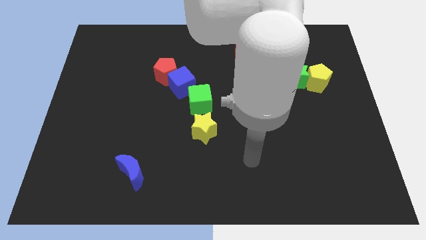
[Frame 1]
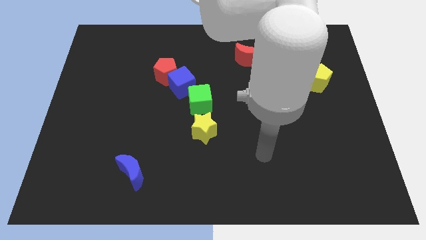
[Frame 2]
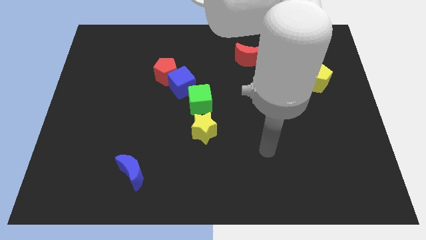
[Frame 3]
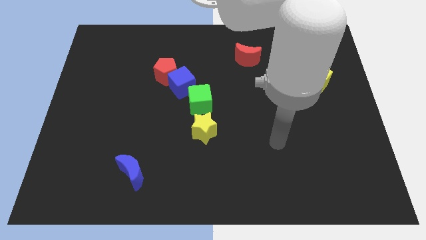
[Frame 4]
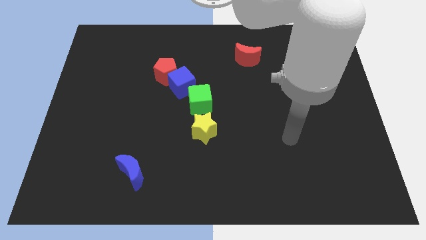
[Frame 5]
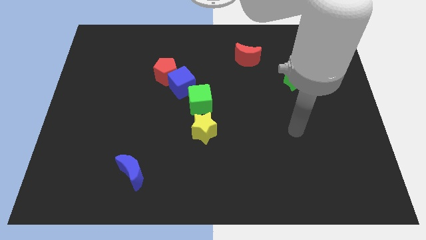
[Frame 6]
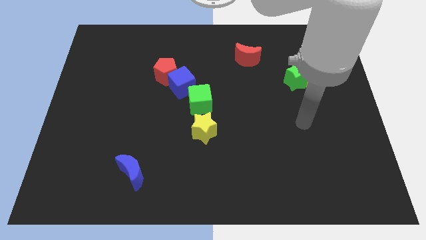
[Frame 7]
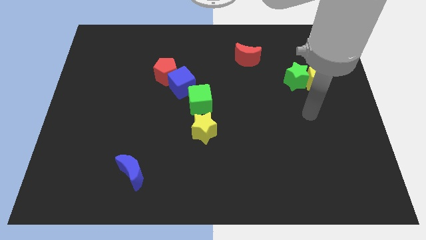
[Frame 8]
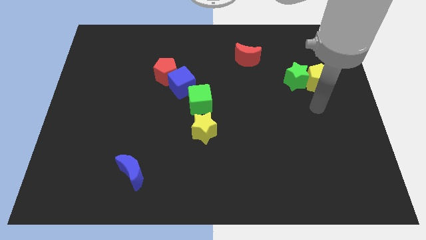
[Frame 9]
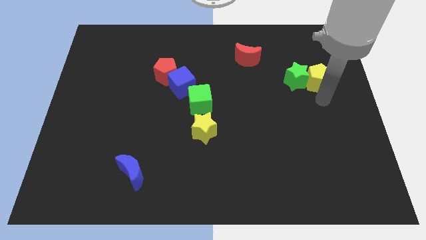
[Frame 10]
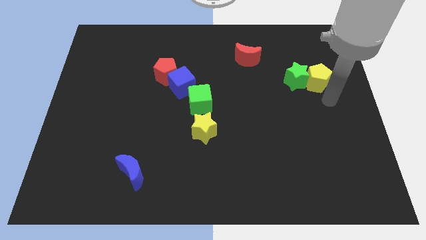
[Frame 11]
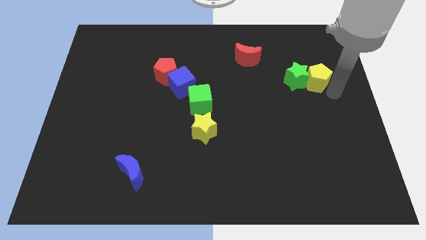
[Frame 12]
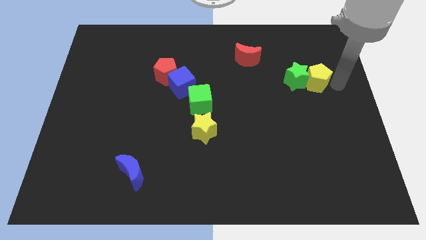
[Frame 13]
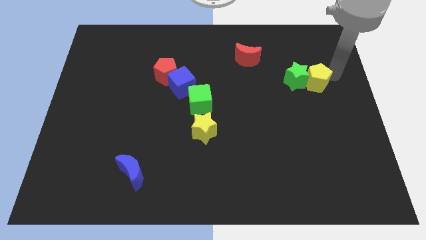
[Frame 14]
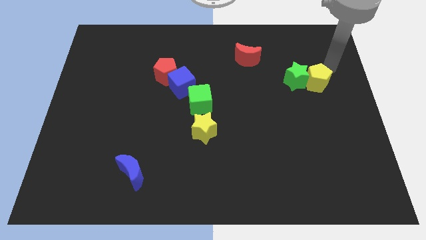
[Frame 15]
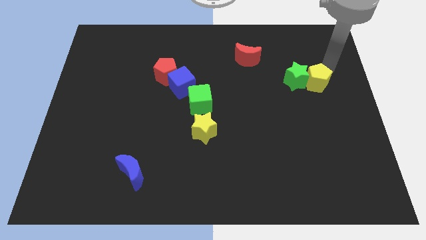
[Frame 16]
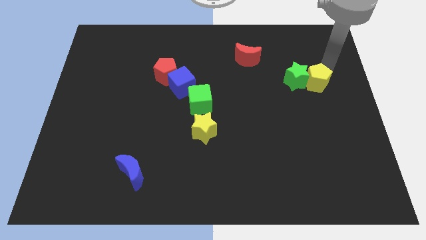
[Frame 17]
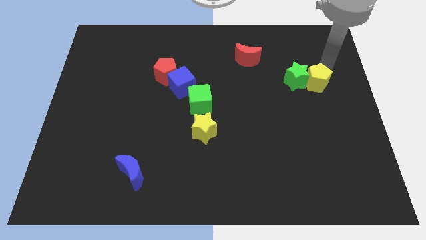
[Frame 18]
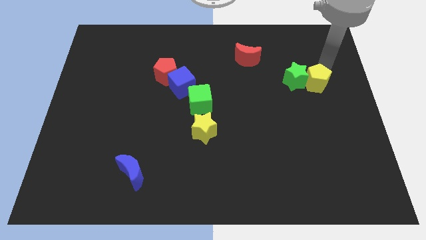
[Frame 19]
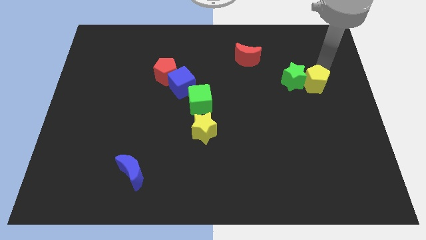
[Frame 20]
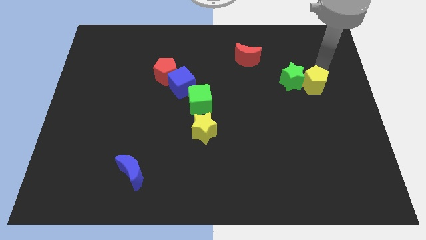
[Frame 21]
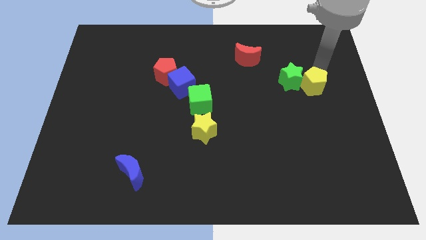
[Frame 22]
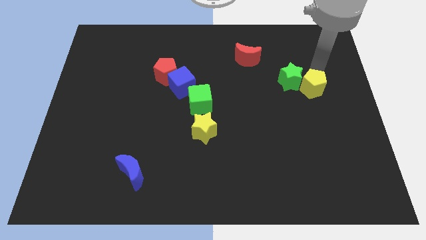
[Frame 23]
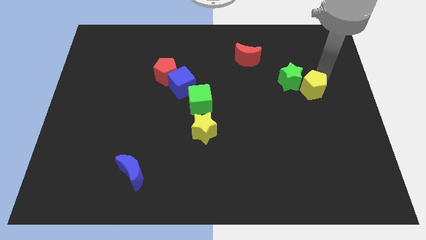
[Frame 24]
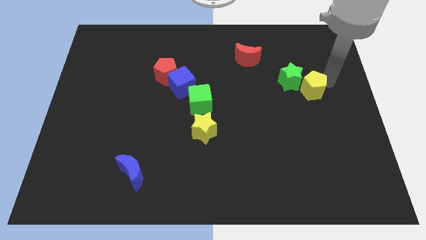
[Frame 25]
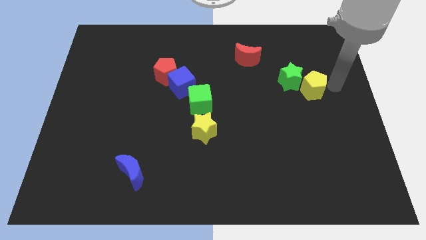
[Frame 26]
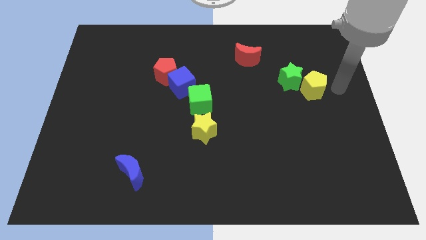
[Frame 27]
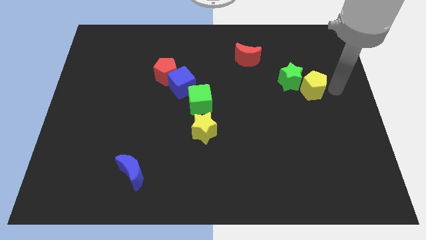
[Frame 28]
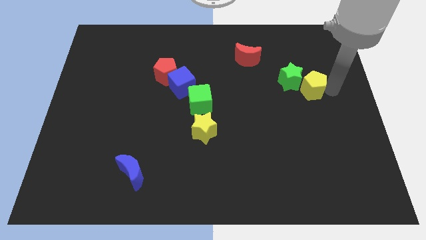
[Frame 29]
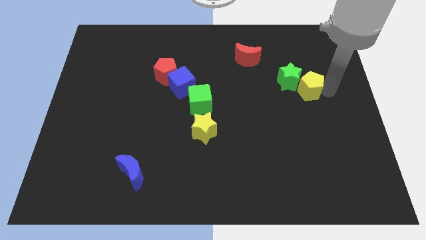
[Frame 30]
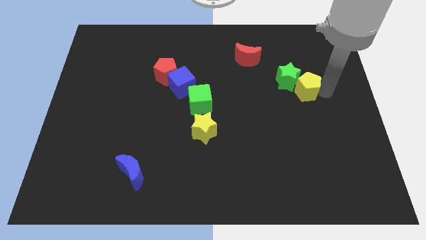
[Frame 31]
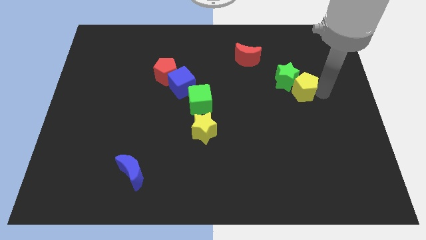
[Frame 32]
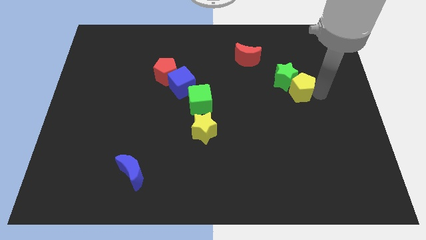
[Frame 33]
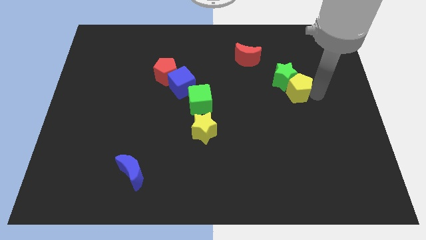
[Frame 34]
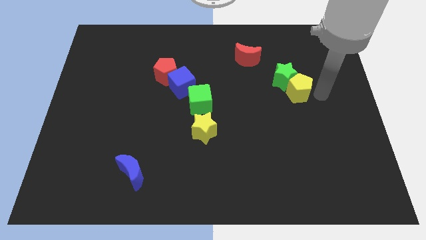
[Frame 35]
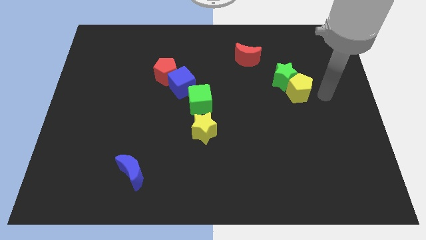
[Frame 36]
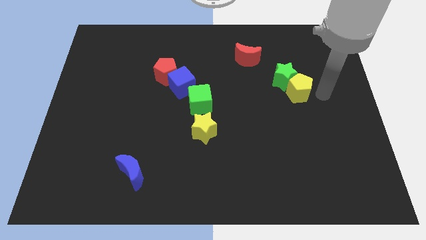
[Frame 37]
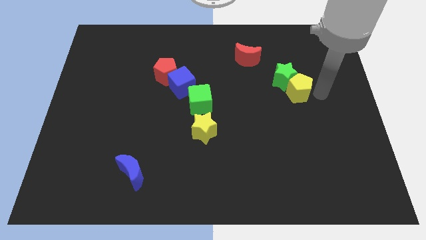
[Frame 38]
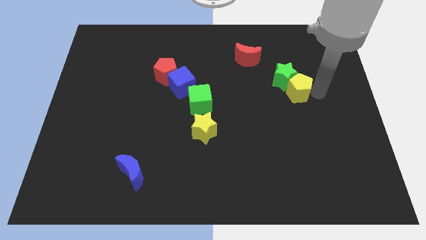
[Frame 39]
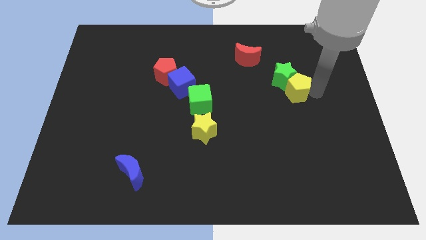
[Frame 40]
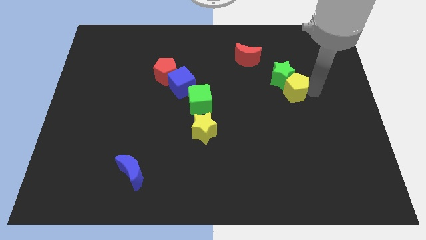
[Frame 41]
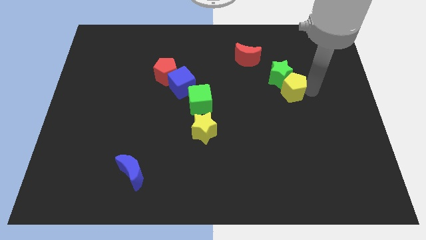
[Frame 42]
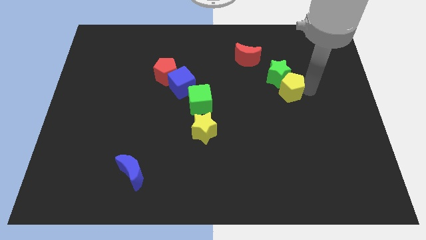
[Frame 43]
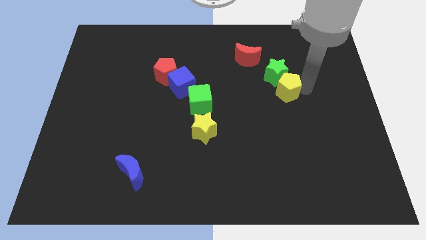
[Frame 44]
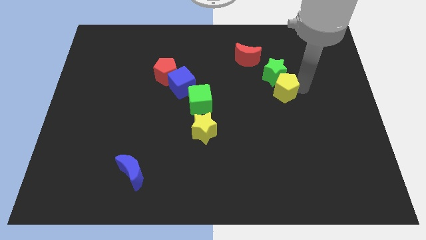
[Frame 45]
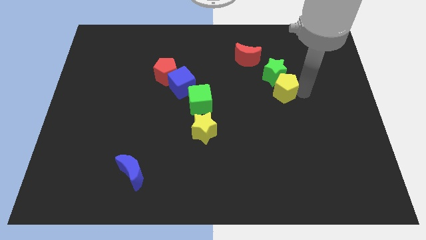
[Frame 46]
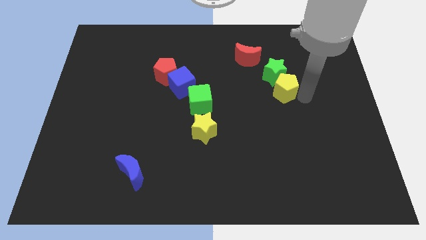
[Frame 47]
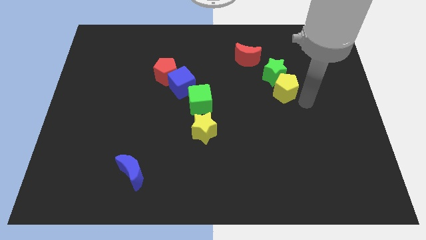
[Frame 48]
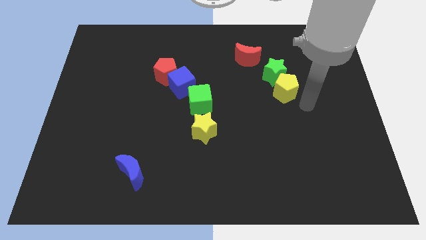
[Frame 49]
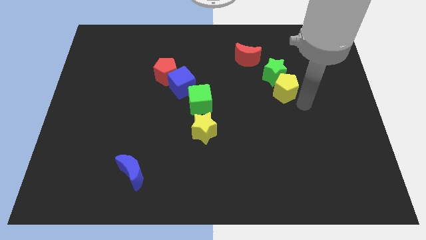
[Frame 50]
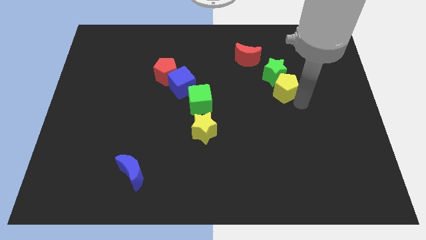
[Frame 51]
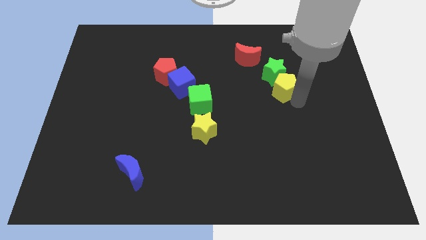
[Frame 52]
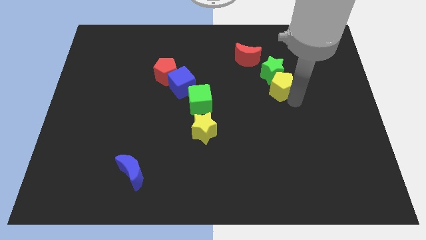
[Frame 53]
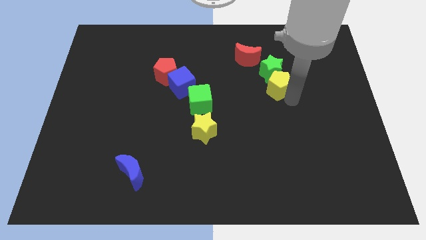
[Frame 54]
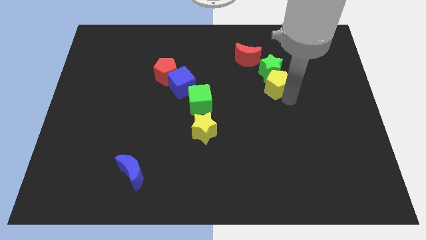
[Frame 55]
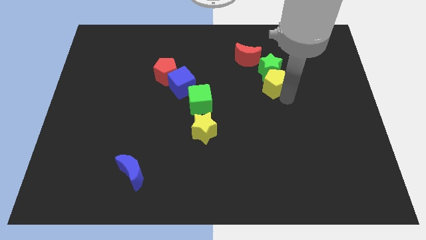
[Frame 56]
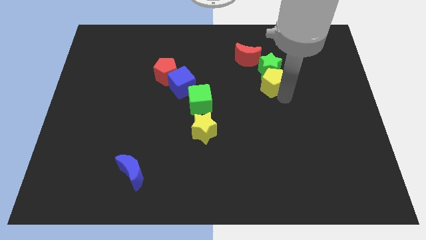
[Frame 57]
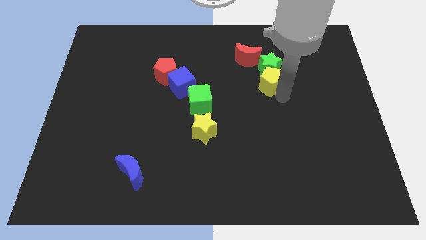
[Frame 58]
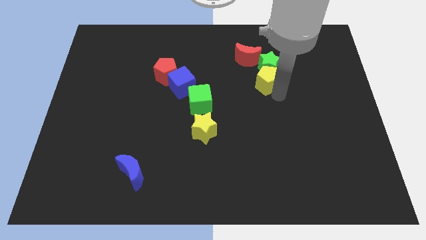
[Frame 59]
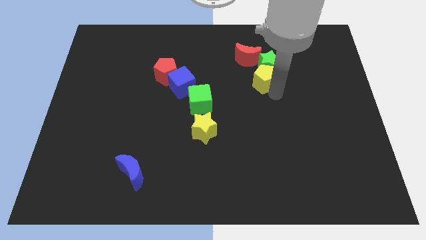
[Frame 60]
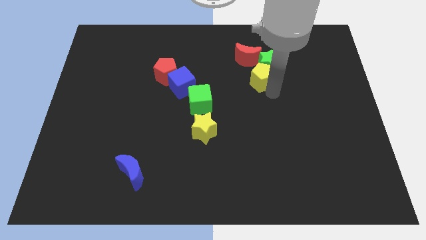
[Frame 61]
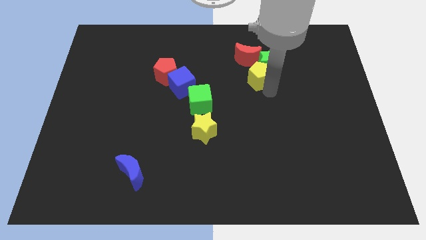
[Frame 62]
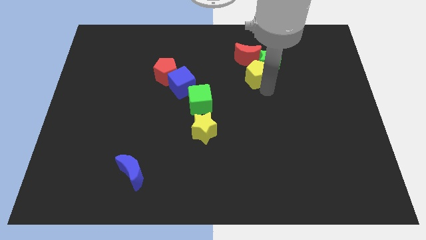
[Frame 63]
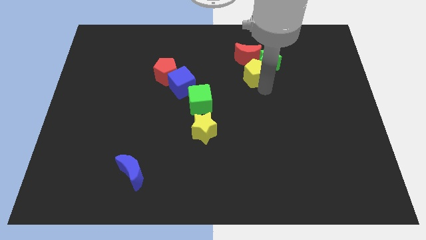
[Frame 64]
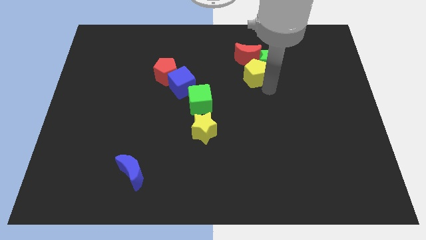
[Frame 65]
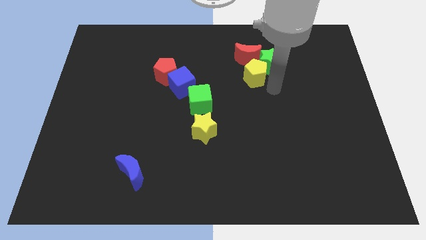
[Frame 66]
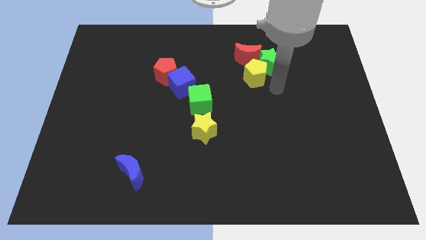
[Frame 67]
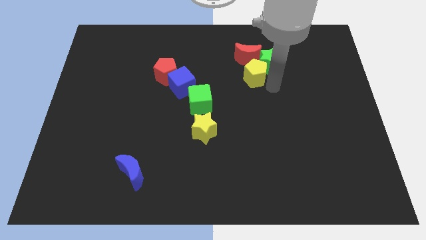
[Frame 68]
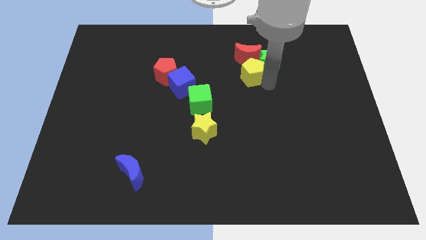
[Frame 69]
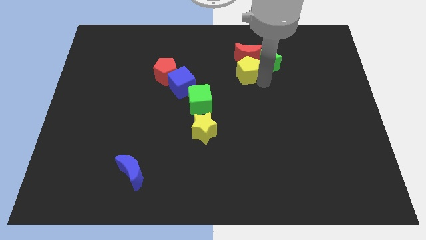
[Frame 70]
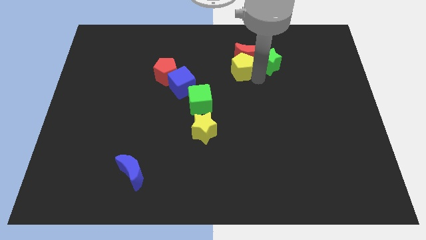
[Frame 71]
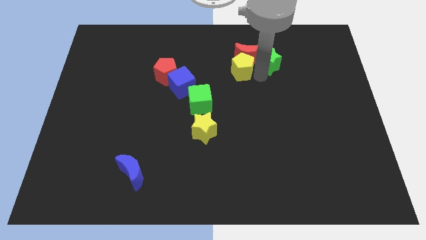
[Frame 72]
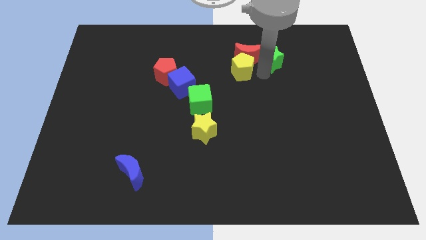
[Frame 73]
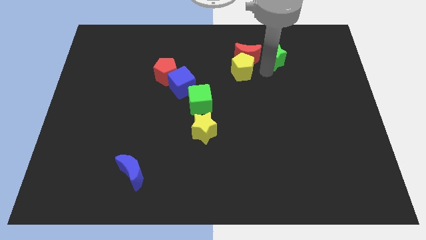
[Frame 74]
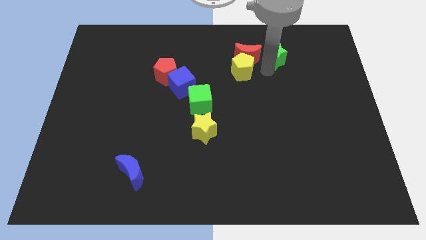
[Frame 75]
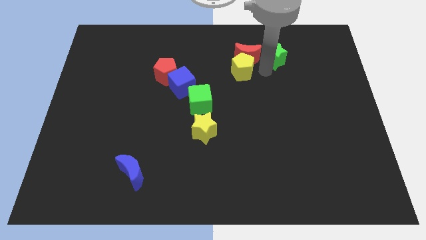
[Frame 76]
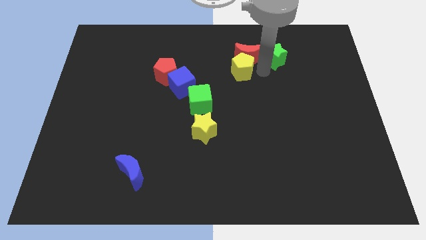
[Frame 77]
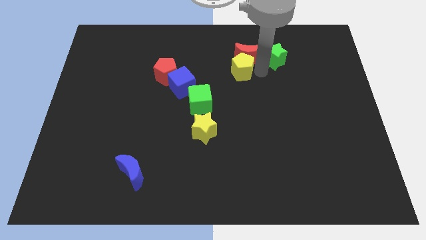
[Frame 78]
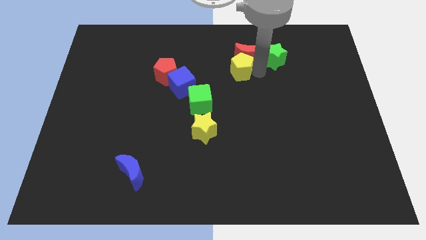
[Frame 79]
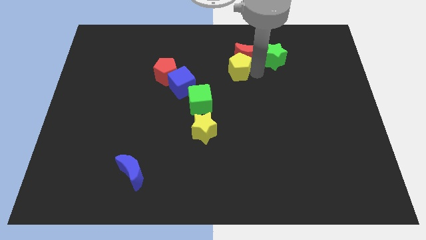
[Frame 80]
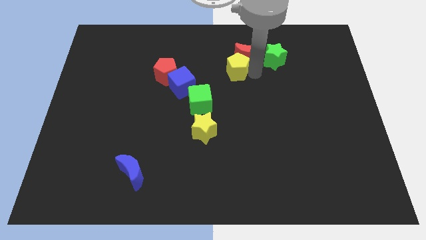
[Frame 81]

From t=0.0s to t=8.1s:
put the yellow pentagon just left of the red moon
